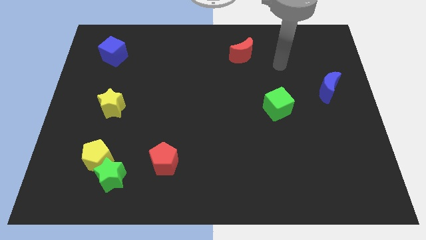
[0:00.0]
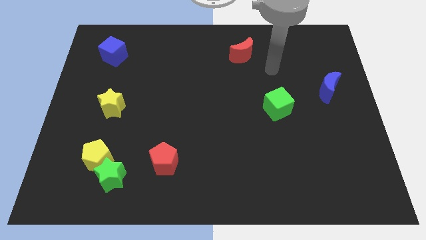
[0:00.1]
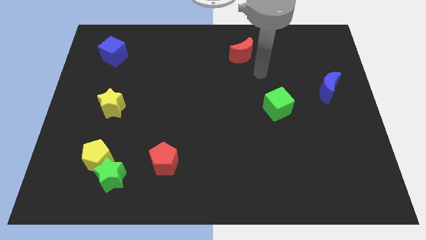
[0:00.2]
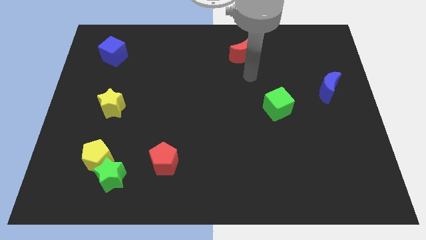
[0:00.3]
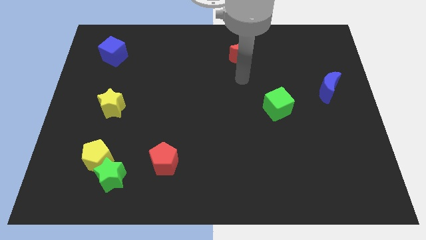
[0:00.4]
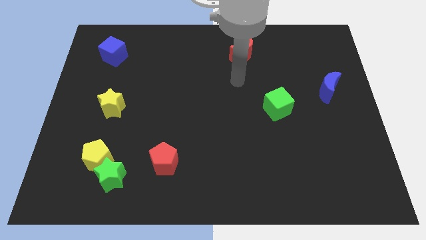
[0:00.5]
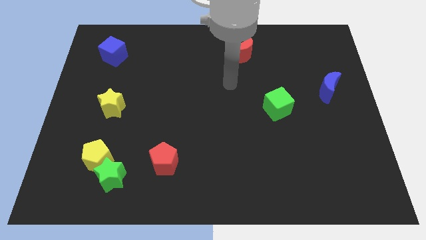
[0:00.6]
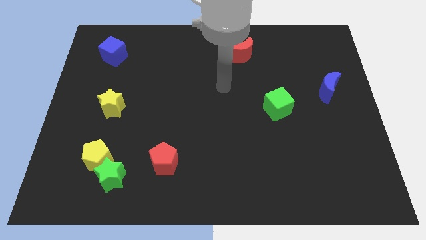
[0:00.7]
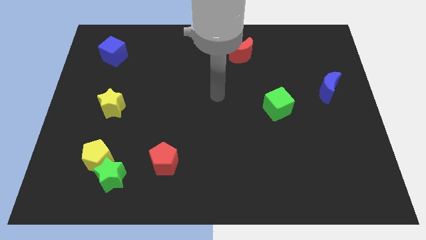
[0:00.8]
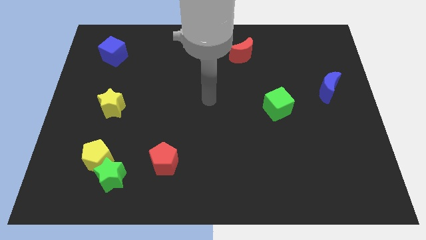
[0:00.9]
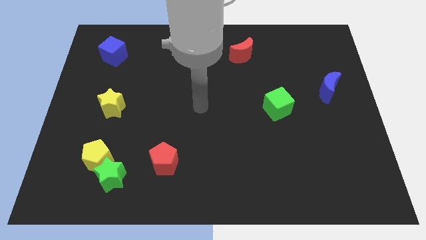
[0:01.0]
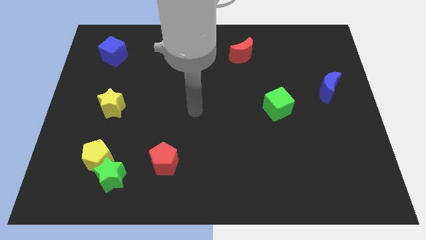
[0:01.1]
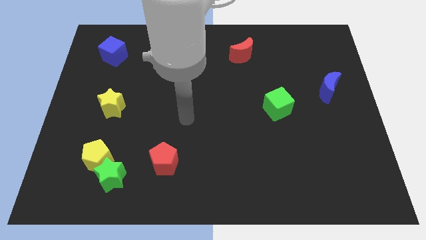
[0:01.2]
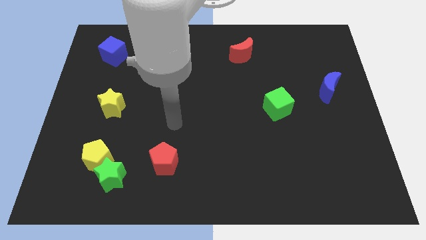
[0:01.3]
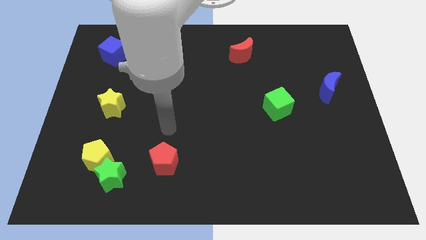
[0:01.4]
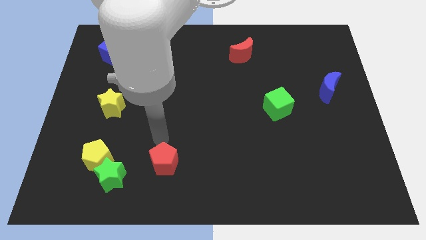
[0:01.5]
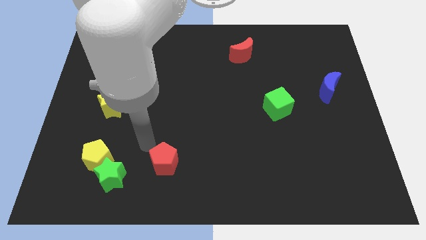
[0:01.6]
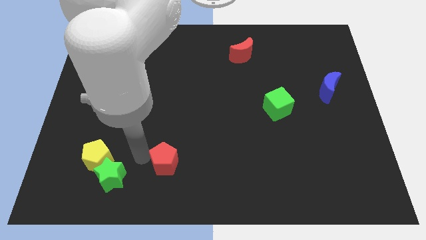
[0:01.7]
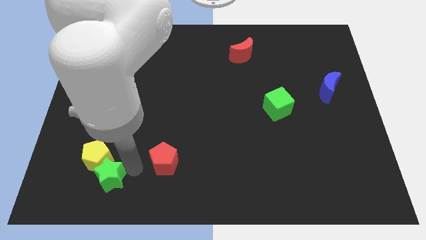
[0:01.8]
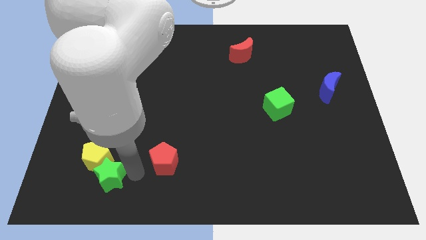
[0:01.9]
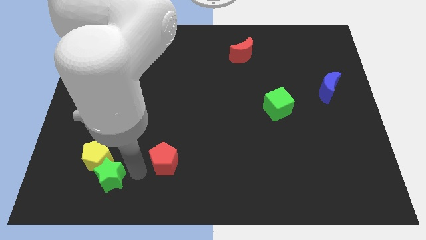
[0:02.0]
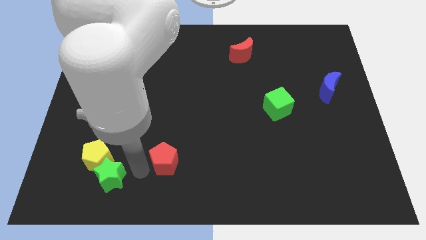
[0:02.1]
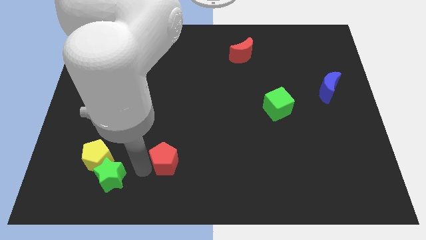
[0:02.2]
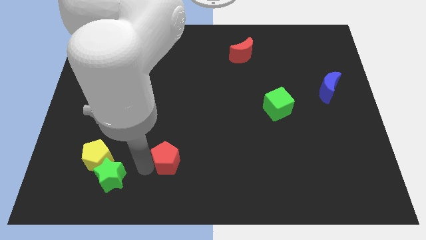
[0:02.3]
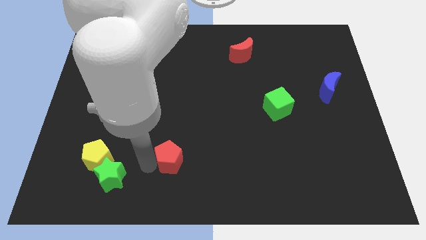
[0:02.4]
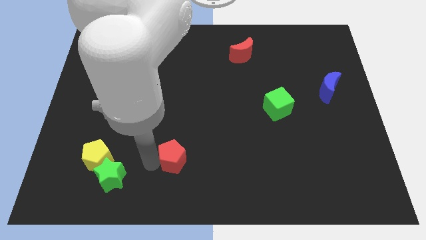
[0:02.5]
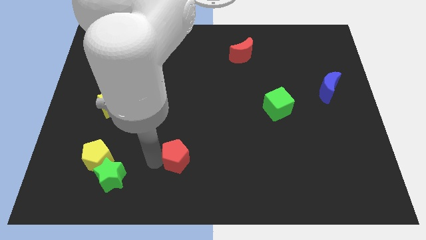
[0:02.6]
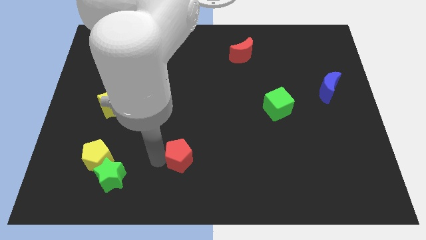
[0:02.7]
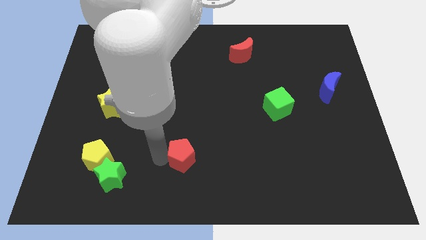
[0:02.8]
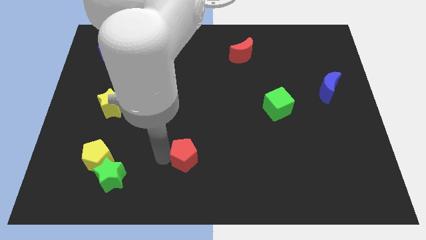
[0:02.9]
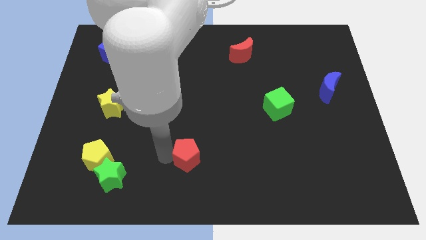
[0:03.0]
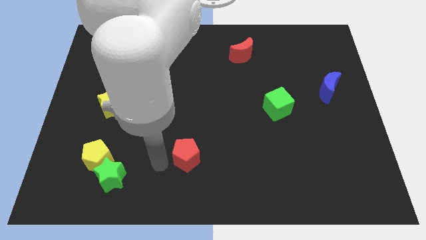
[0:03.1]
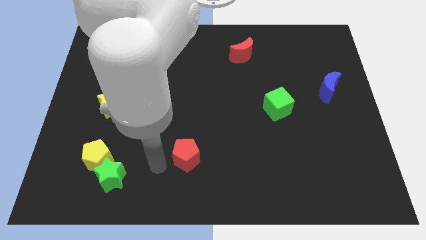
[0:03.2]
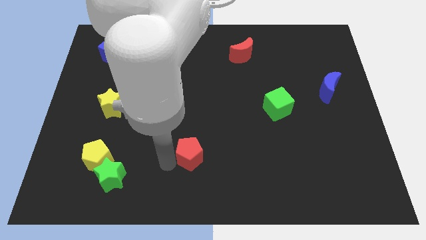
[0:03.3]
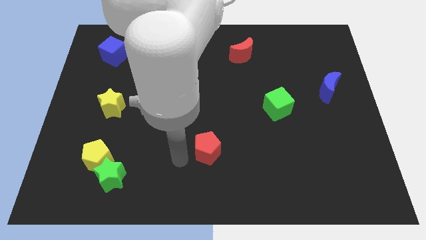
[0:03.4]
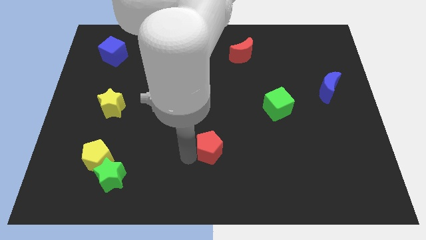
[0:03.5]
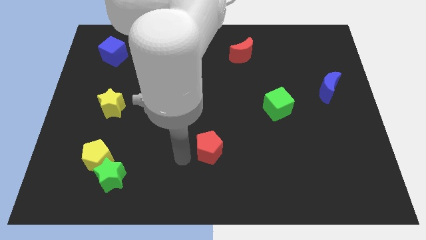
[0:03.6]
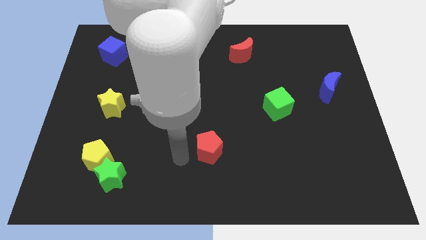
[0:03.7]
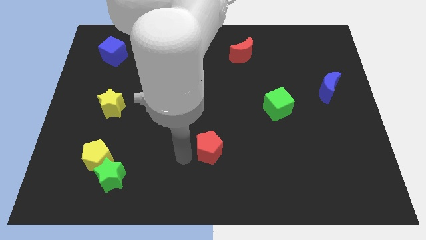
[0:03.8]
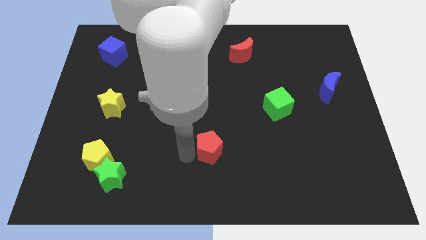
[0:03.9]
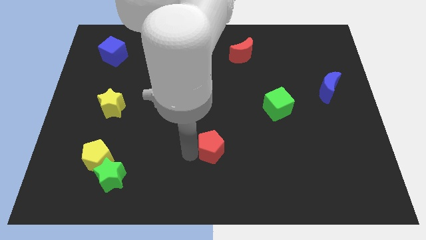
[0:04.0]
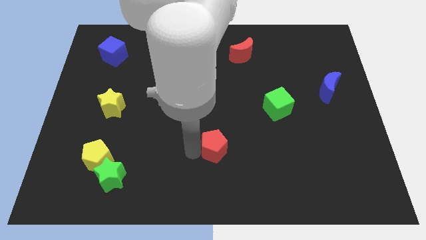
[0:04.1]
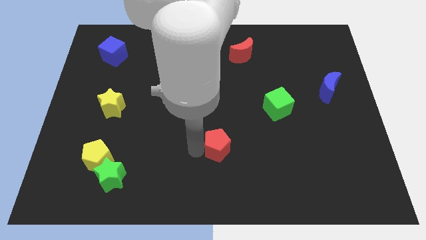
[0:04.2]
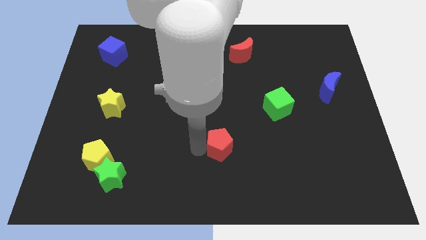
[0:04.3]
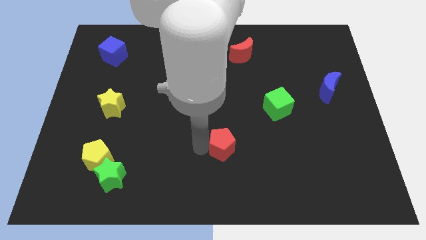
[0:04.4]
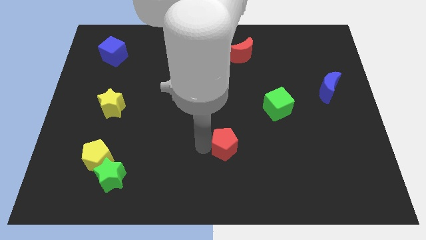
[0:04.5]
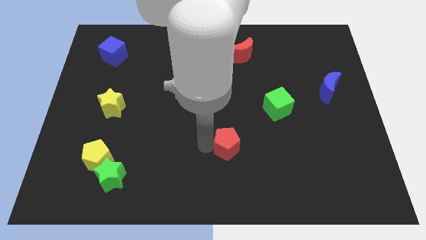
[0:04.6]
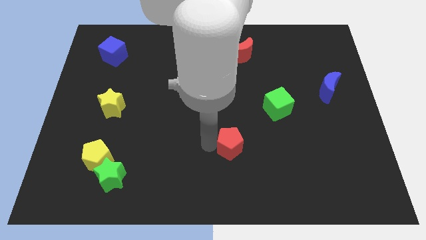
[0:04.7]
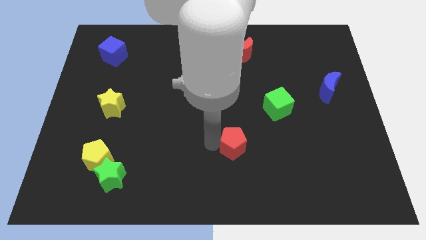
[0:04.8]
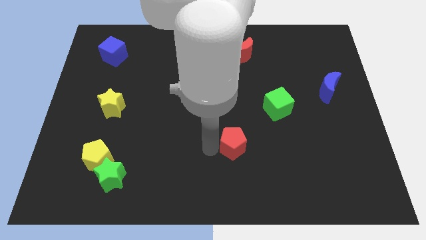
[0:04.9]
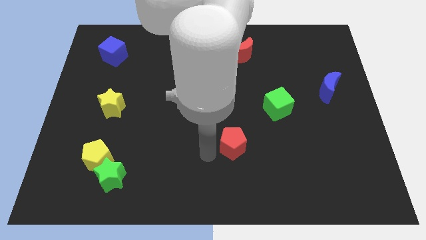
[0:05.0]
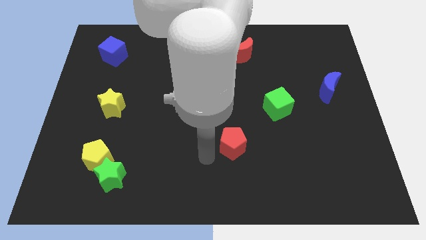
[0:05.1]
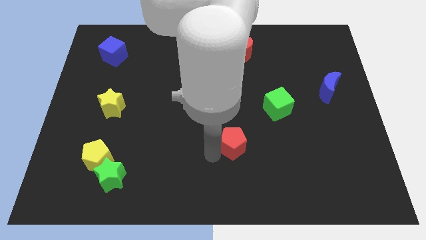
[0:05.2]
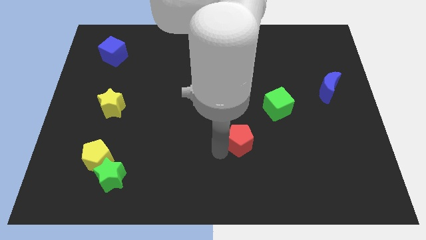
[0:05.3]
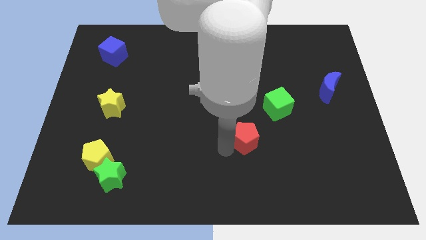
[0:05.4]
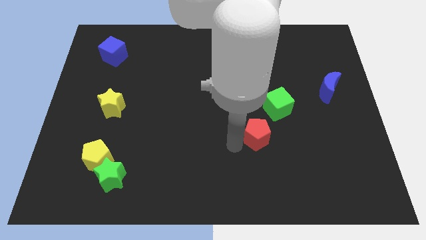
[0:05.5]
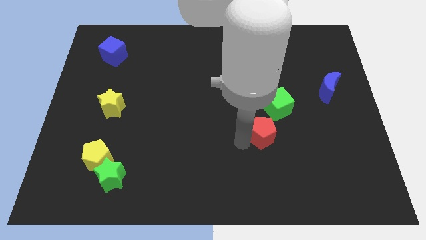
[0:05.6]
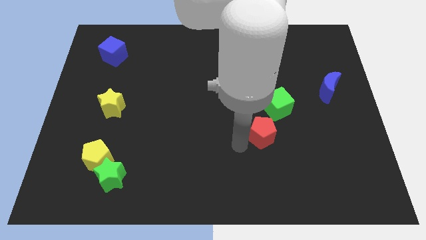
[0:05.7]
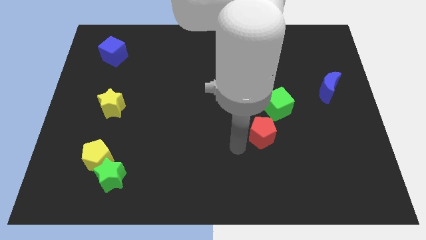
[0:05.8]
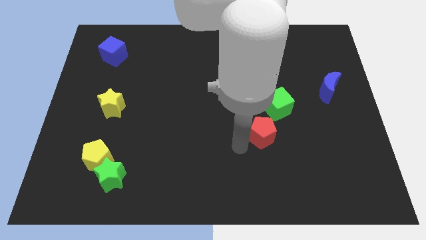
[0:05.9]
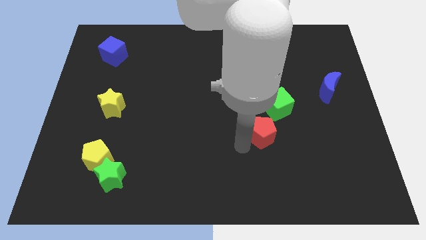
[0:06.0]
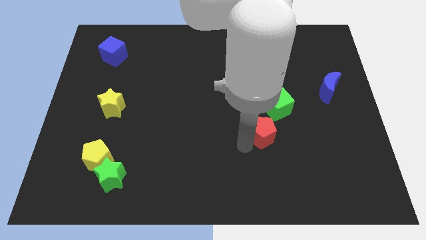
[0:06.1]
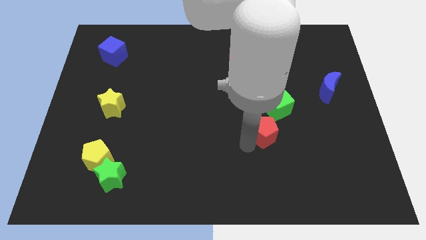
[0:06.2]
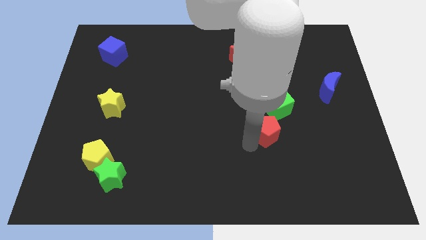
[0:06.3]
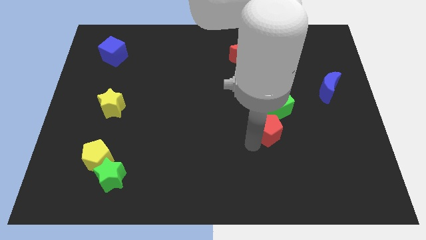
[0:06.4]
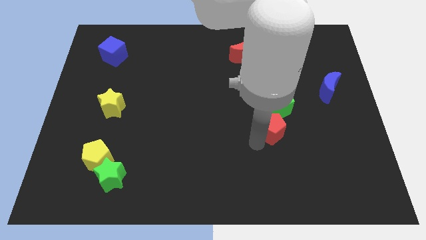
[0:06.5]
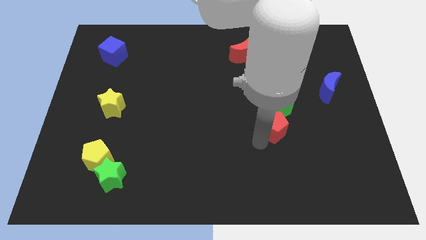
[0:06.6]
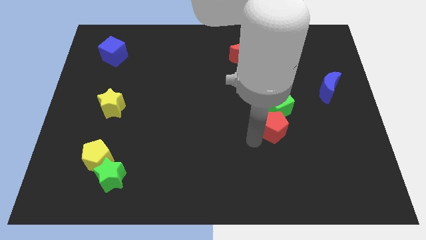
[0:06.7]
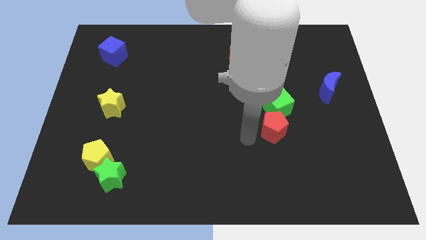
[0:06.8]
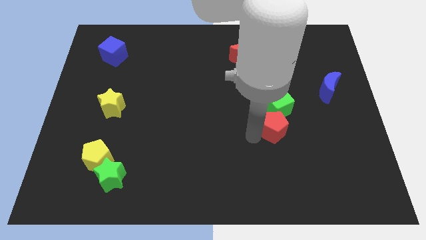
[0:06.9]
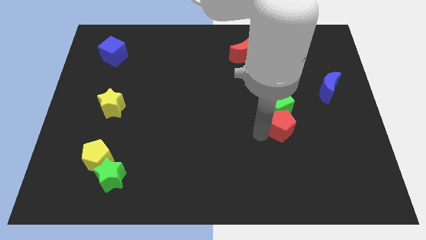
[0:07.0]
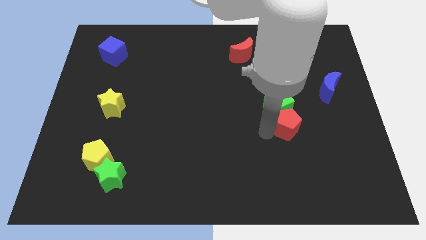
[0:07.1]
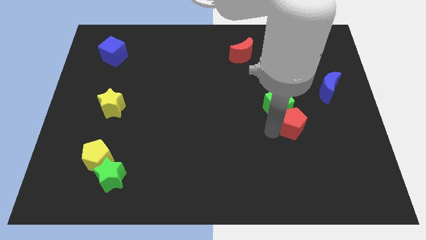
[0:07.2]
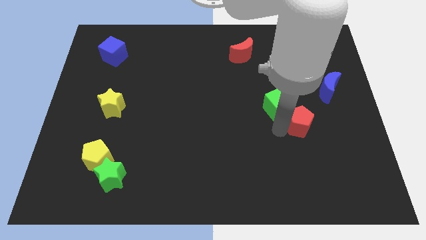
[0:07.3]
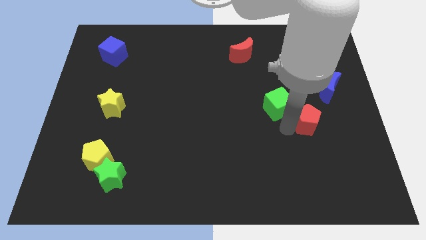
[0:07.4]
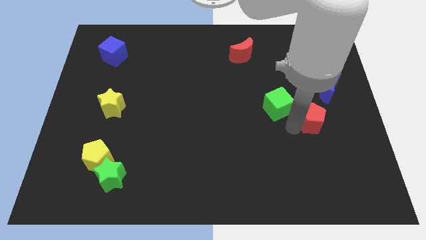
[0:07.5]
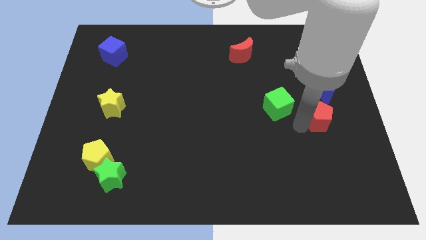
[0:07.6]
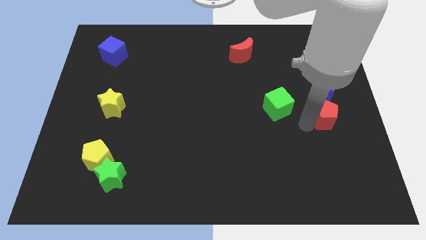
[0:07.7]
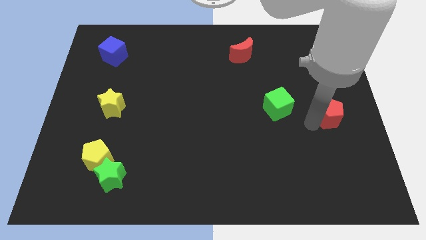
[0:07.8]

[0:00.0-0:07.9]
move the red pentagon to the right side
